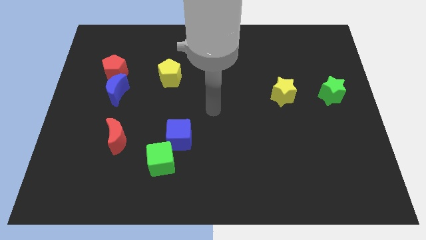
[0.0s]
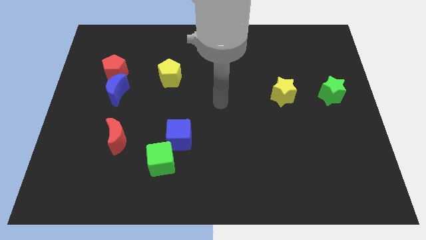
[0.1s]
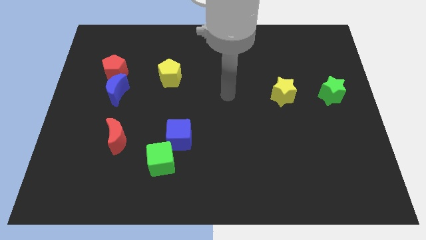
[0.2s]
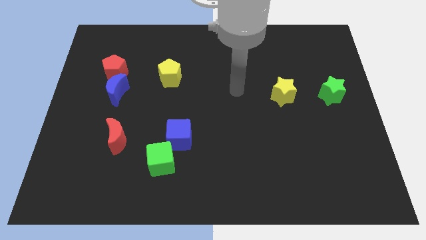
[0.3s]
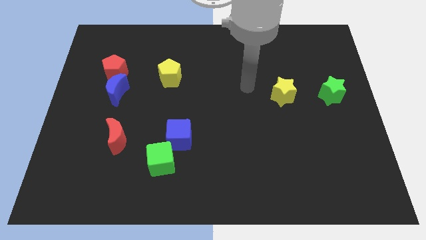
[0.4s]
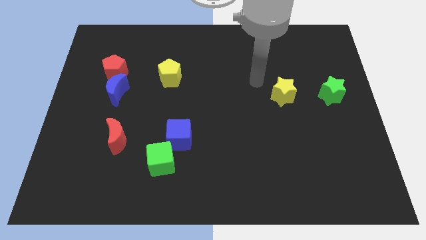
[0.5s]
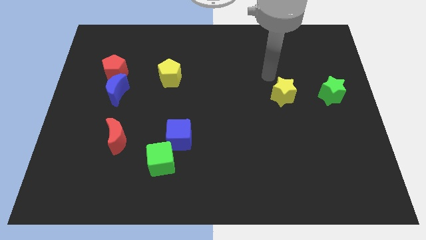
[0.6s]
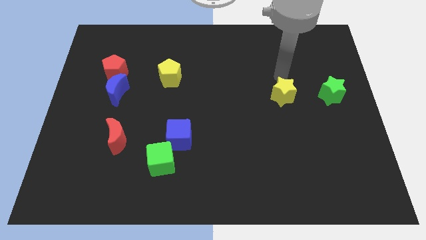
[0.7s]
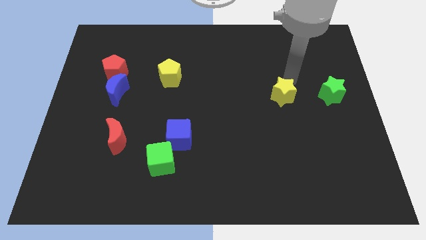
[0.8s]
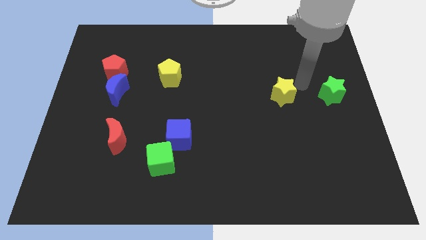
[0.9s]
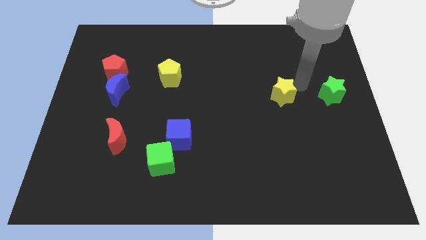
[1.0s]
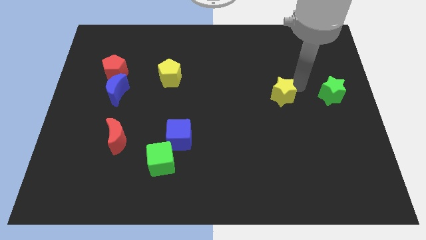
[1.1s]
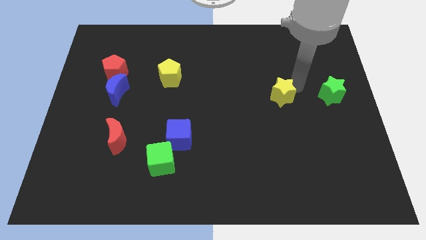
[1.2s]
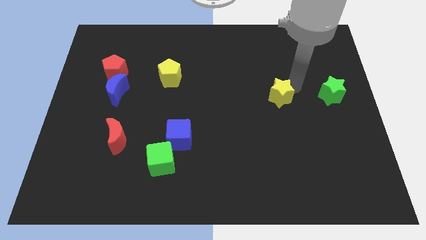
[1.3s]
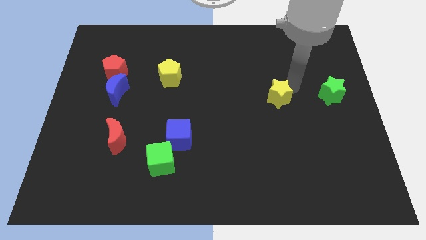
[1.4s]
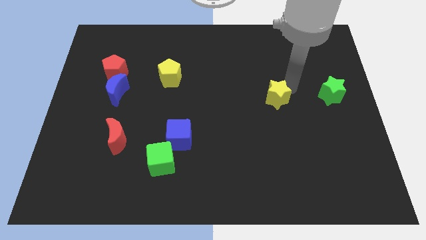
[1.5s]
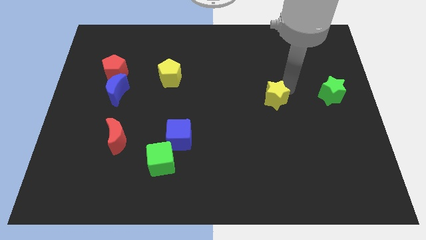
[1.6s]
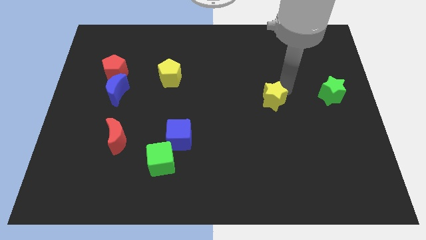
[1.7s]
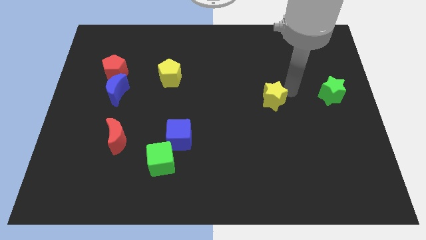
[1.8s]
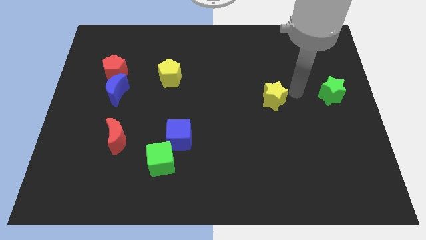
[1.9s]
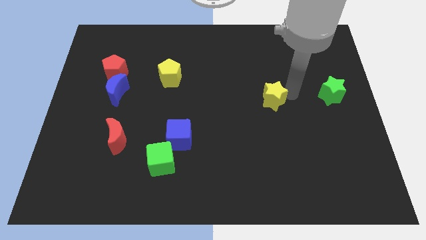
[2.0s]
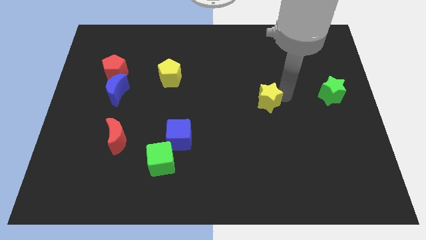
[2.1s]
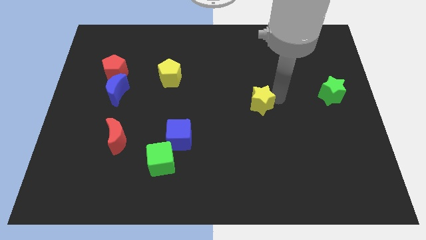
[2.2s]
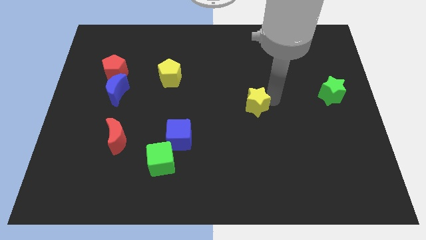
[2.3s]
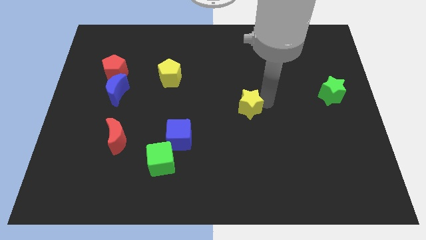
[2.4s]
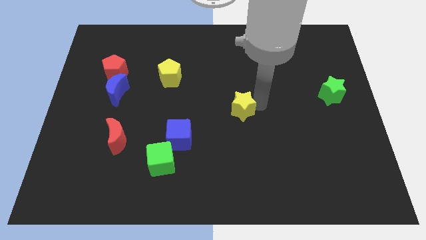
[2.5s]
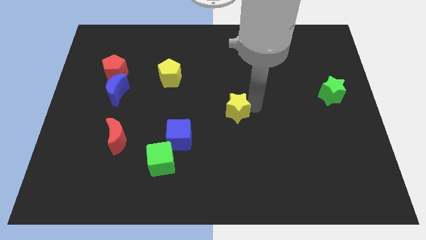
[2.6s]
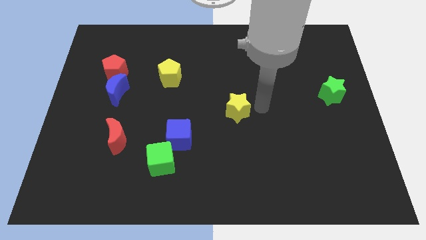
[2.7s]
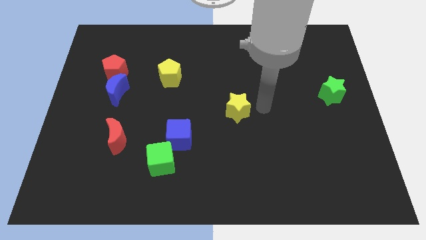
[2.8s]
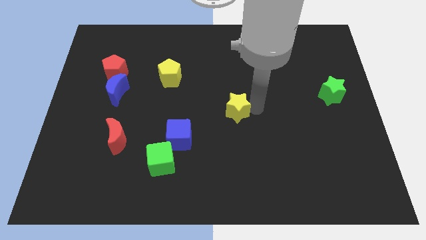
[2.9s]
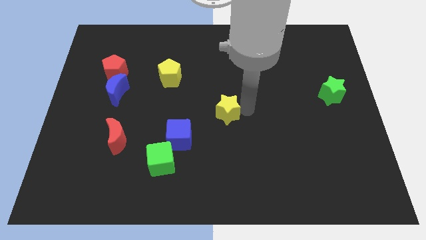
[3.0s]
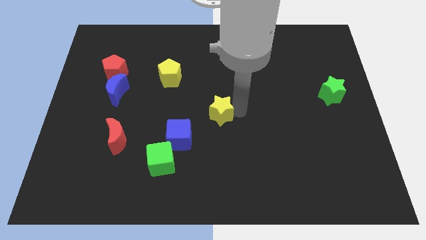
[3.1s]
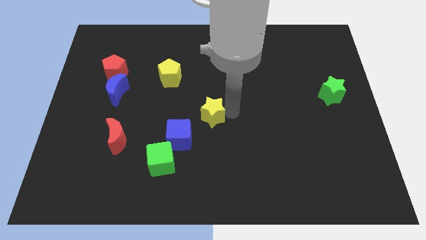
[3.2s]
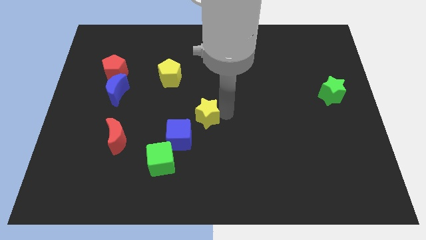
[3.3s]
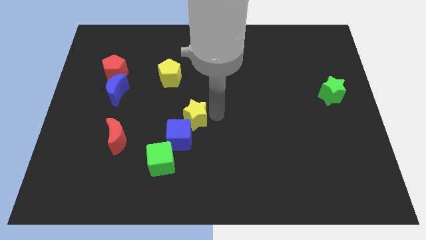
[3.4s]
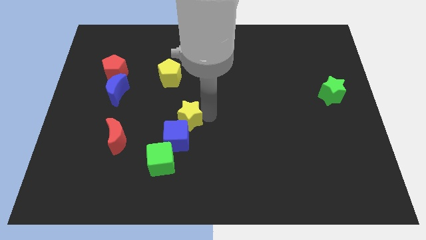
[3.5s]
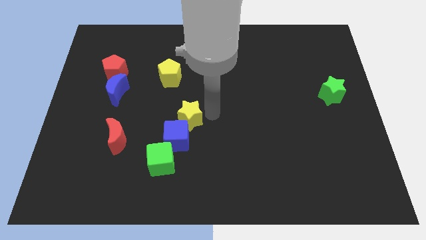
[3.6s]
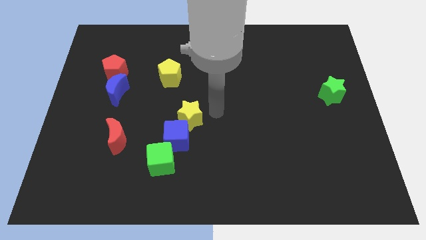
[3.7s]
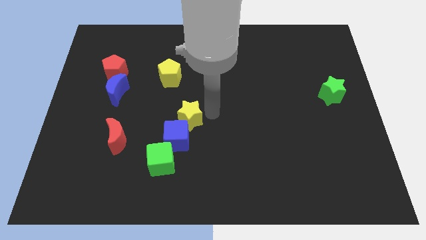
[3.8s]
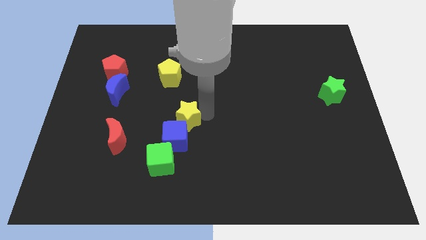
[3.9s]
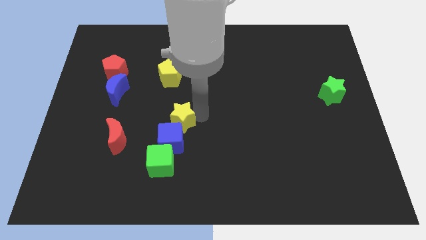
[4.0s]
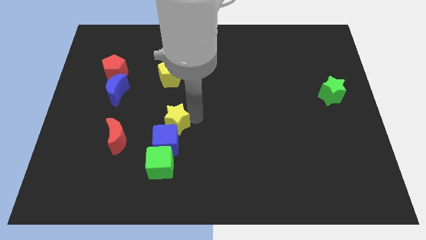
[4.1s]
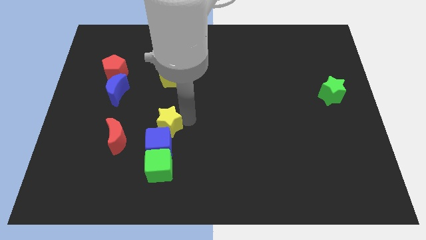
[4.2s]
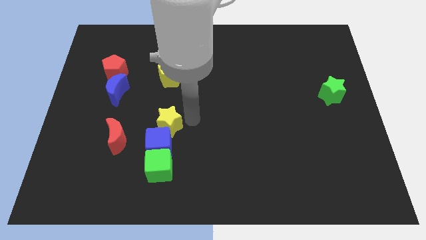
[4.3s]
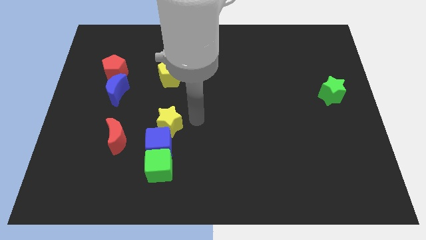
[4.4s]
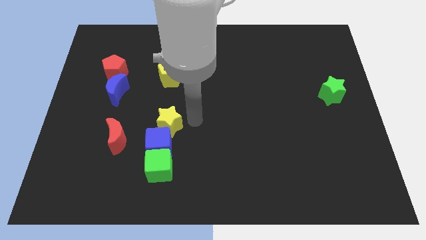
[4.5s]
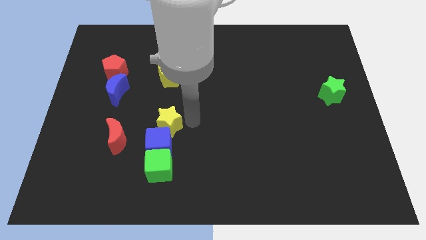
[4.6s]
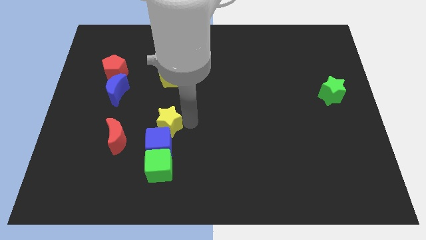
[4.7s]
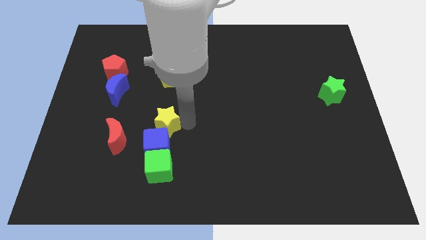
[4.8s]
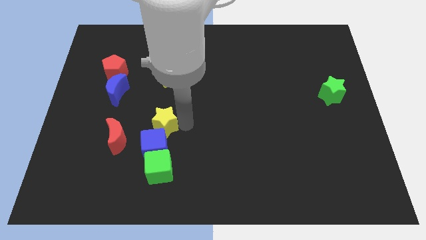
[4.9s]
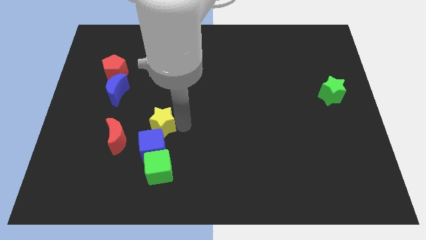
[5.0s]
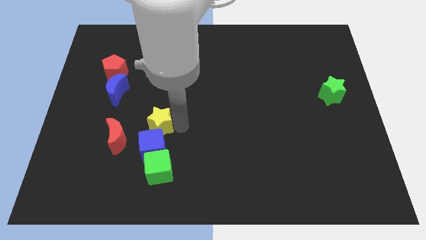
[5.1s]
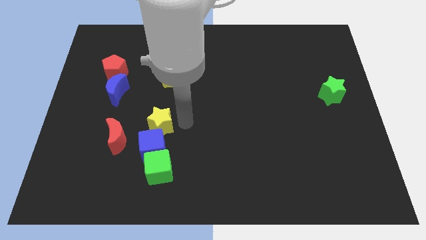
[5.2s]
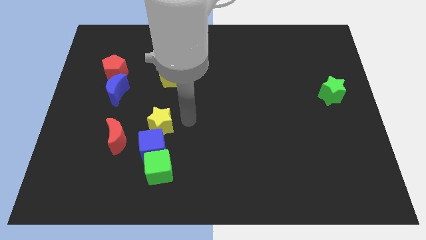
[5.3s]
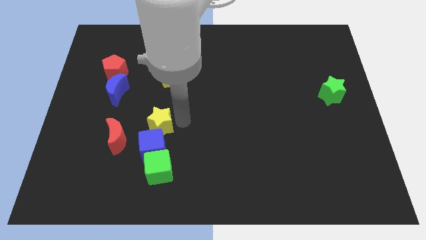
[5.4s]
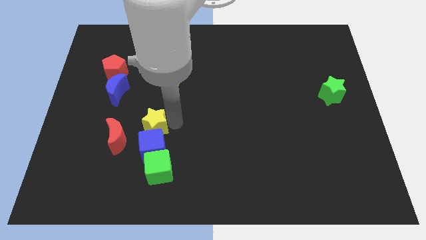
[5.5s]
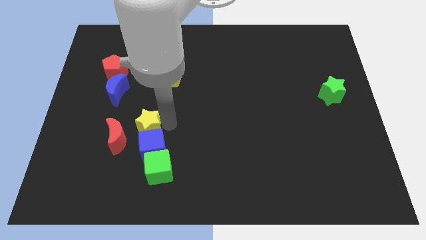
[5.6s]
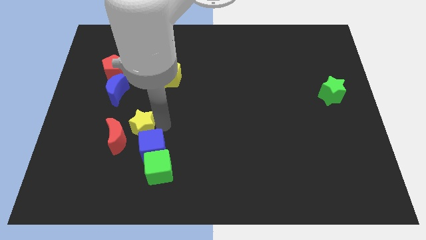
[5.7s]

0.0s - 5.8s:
move the yellow star close to the red moon
